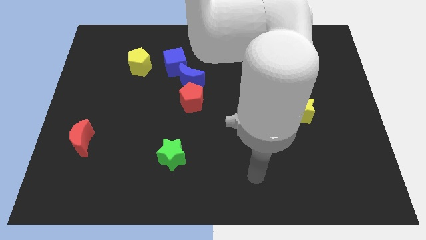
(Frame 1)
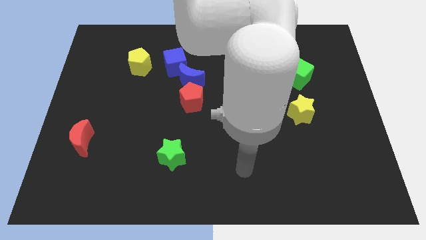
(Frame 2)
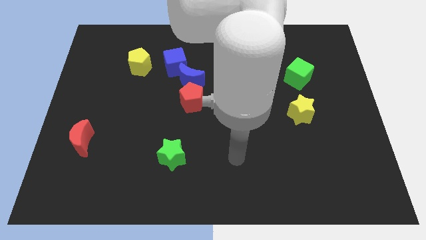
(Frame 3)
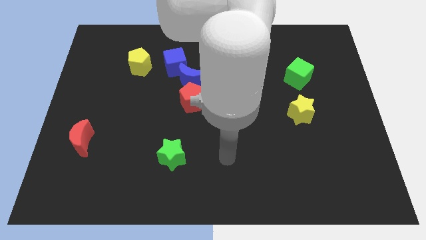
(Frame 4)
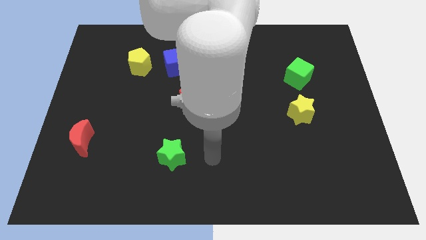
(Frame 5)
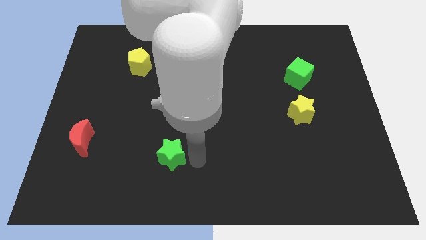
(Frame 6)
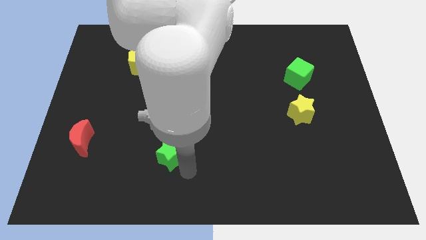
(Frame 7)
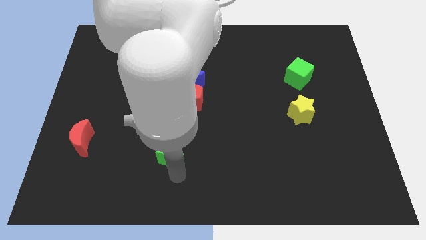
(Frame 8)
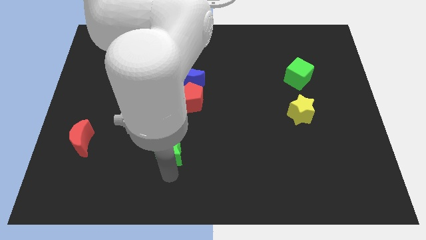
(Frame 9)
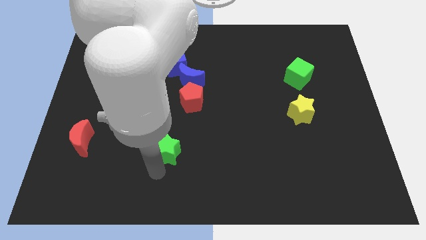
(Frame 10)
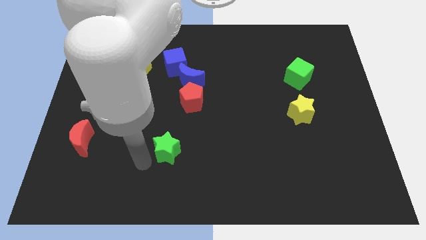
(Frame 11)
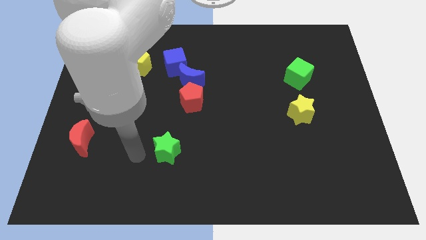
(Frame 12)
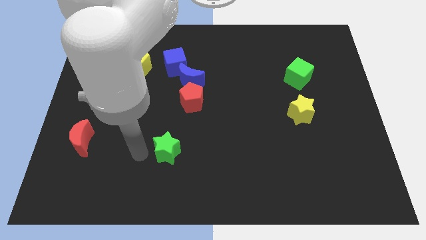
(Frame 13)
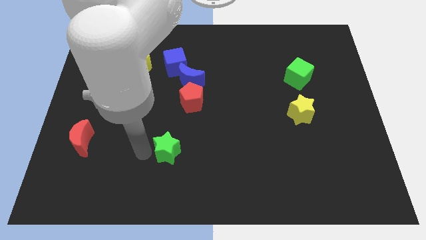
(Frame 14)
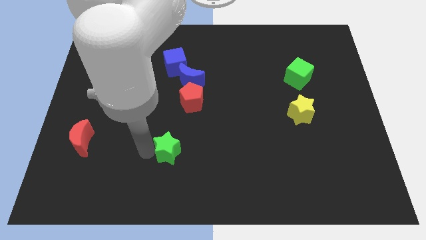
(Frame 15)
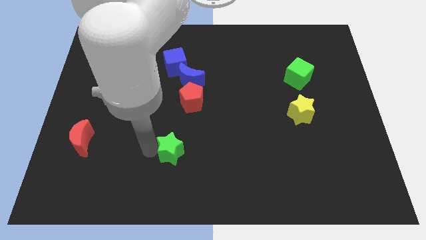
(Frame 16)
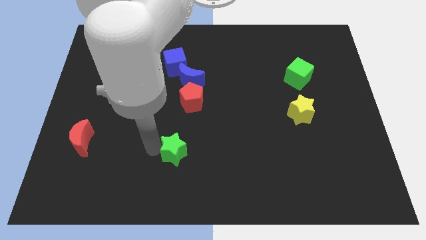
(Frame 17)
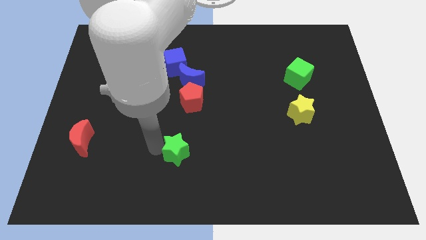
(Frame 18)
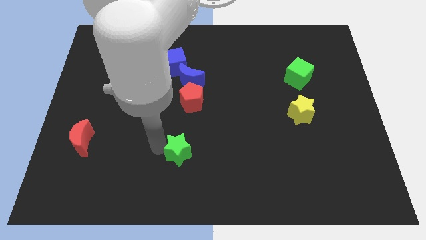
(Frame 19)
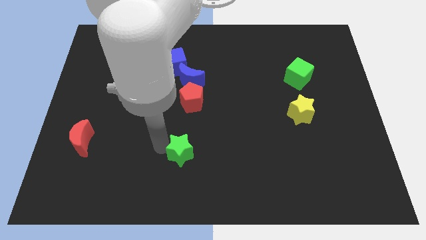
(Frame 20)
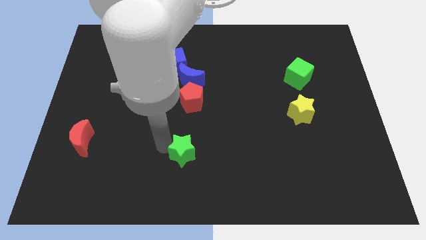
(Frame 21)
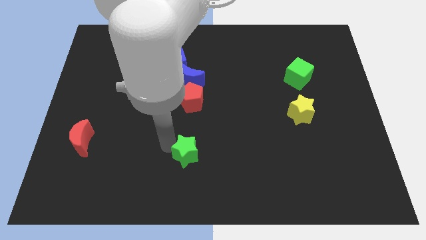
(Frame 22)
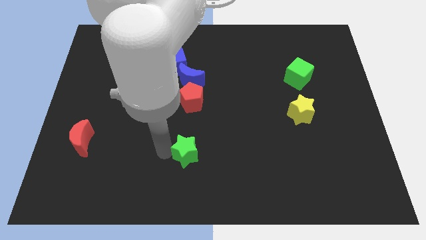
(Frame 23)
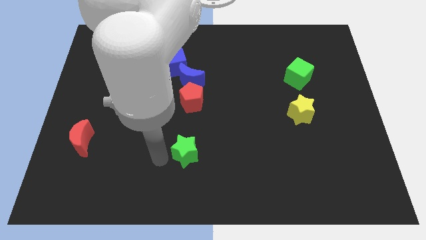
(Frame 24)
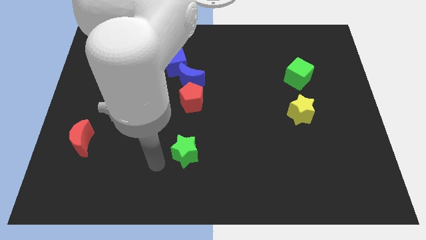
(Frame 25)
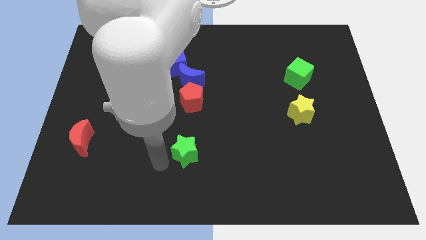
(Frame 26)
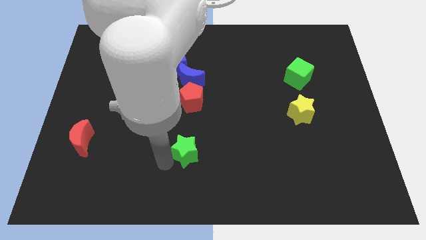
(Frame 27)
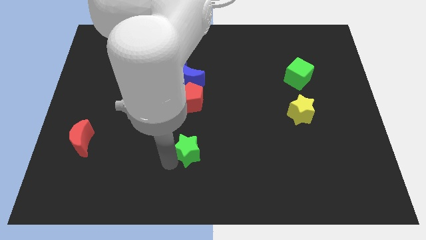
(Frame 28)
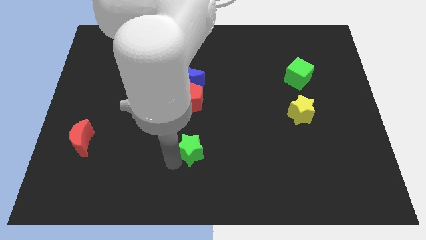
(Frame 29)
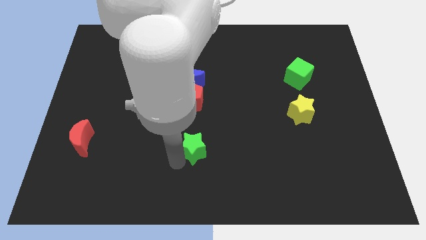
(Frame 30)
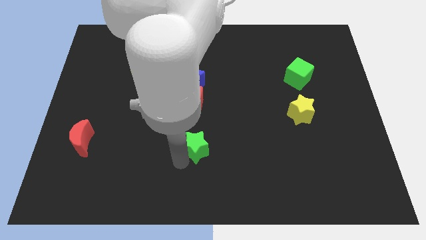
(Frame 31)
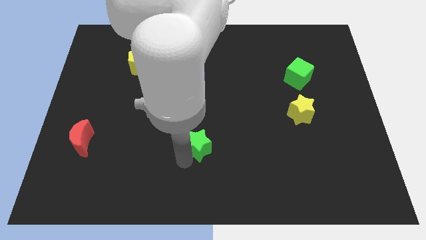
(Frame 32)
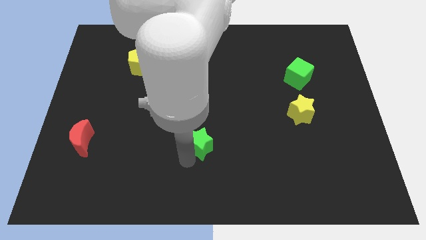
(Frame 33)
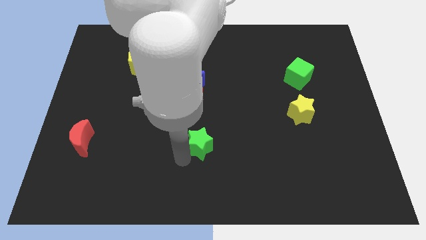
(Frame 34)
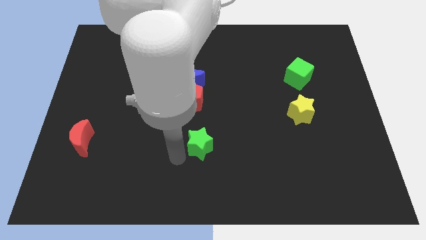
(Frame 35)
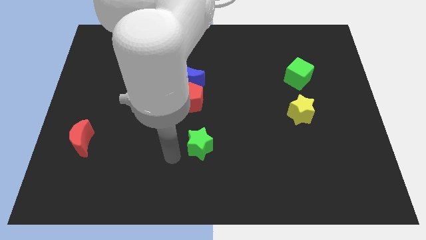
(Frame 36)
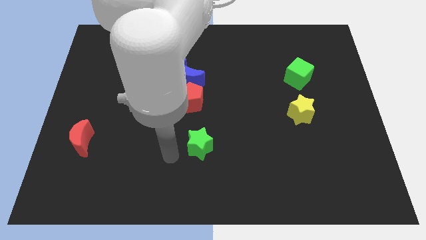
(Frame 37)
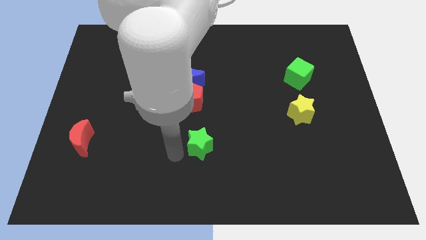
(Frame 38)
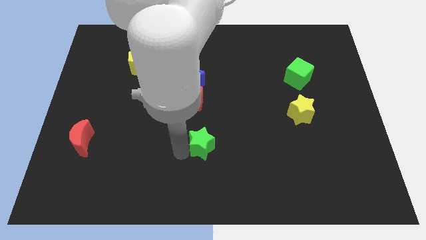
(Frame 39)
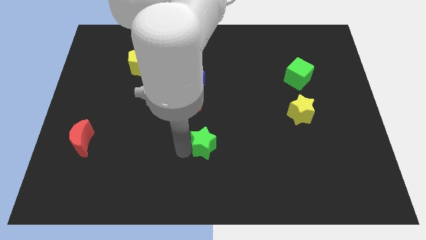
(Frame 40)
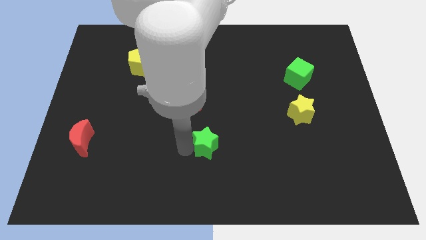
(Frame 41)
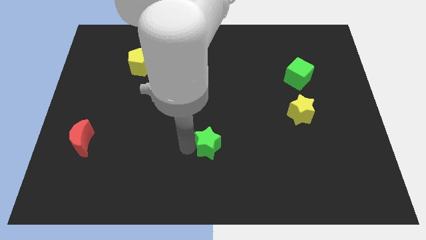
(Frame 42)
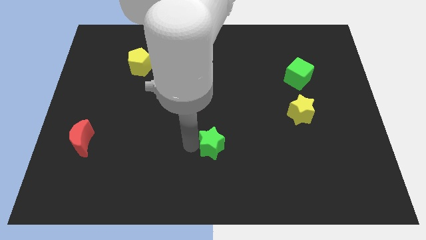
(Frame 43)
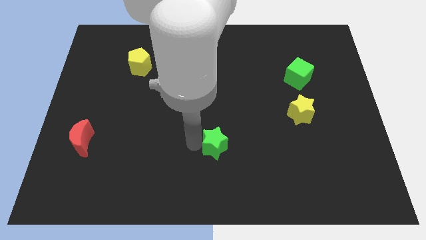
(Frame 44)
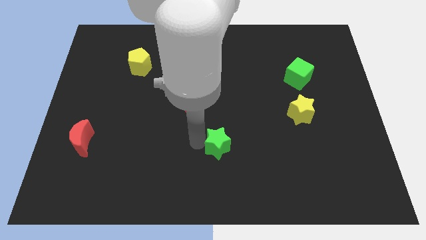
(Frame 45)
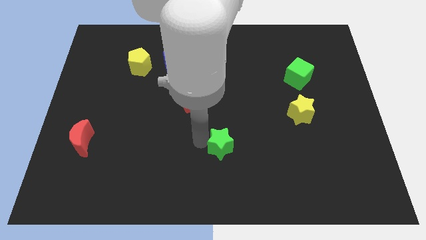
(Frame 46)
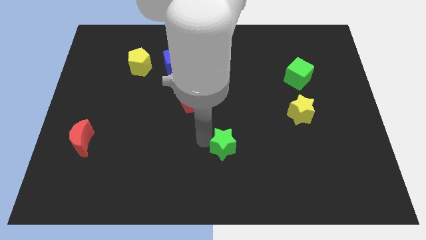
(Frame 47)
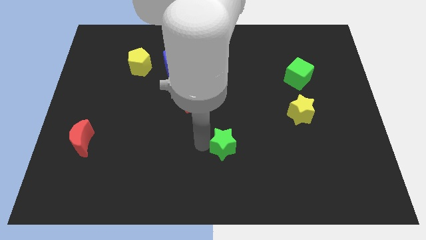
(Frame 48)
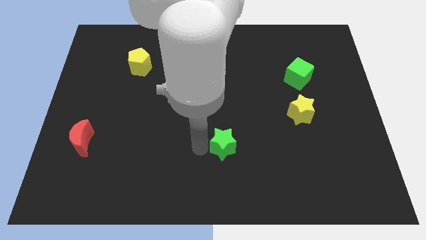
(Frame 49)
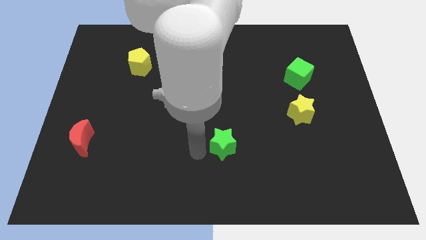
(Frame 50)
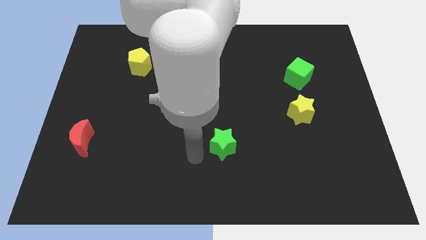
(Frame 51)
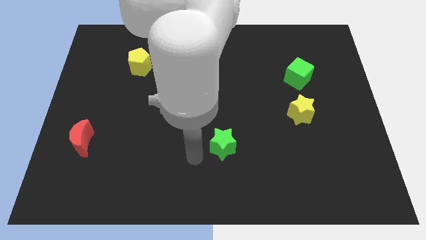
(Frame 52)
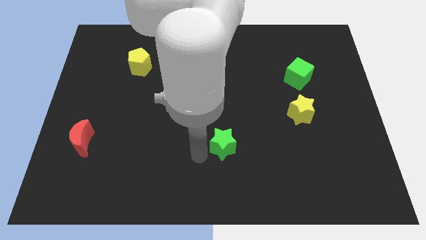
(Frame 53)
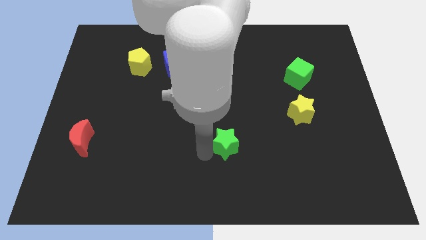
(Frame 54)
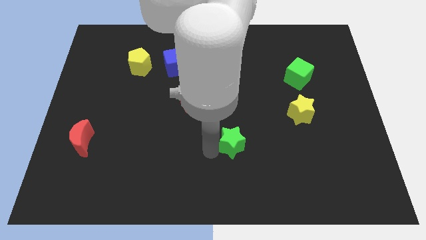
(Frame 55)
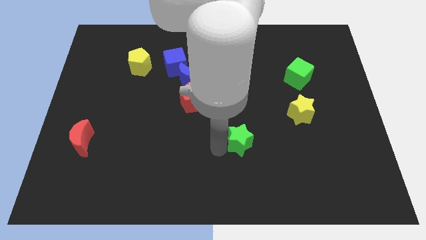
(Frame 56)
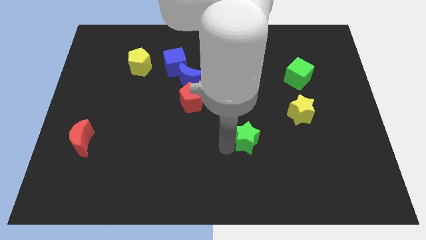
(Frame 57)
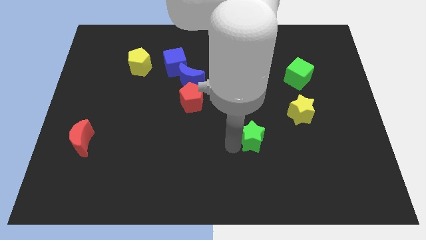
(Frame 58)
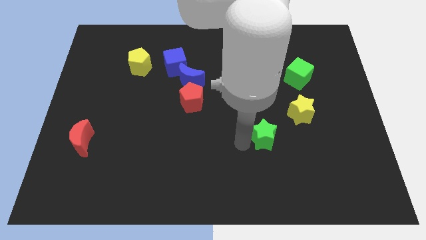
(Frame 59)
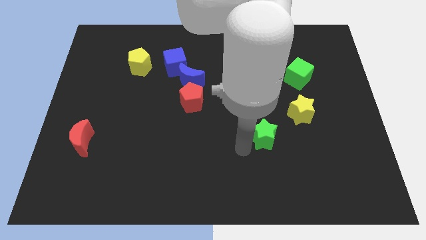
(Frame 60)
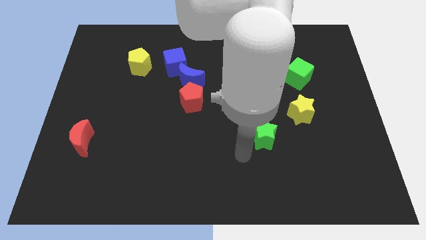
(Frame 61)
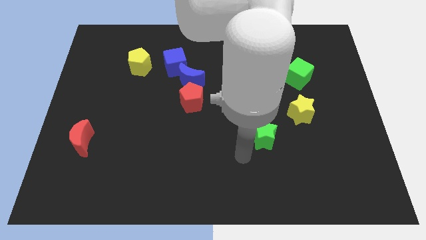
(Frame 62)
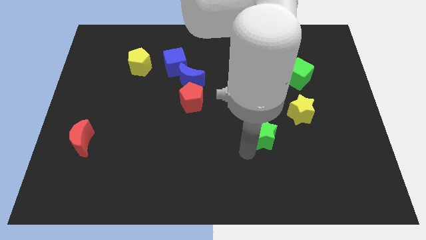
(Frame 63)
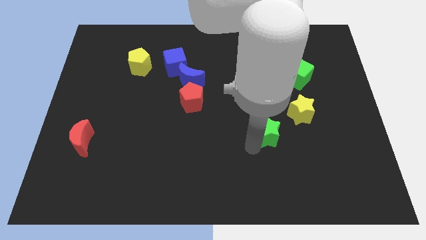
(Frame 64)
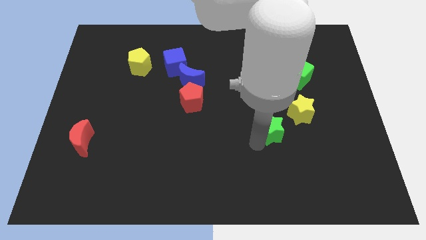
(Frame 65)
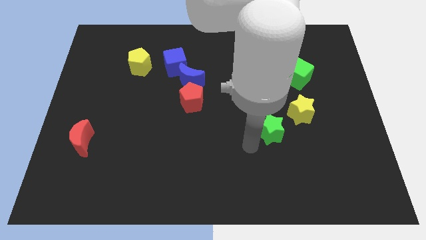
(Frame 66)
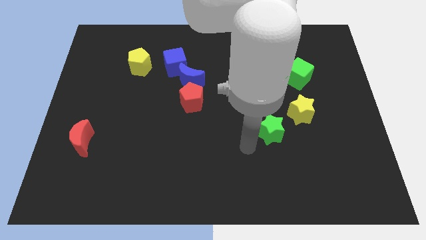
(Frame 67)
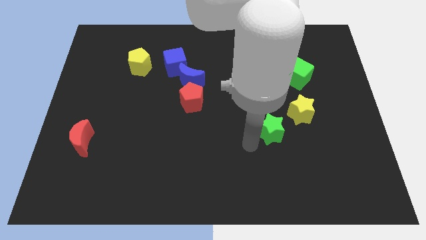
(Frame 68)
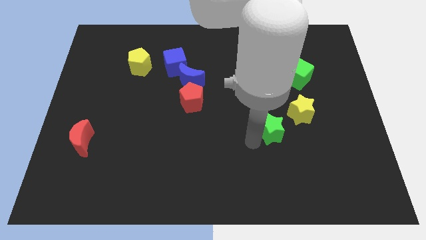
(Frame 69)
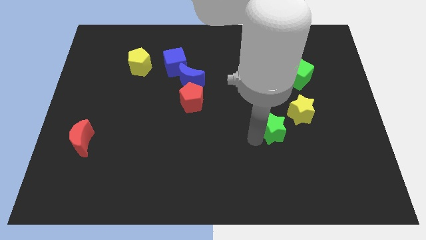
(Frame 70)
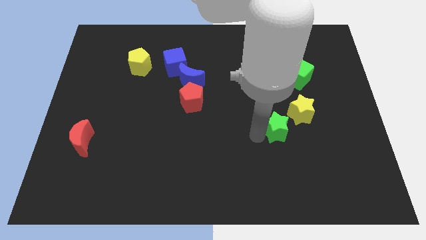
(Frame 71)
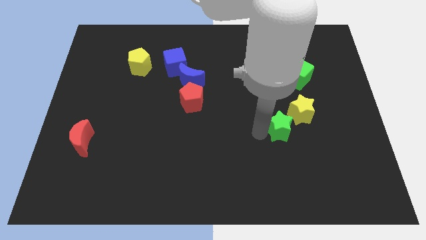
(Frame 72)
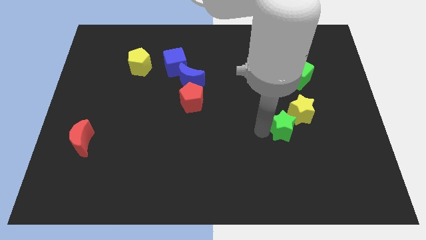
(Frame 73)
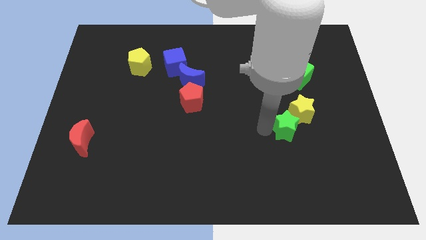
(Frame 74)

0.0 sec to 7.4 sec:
move the green star to the yellow star
